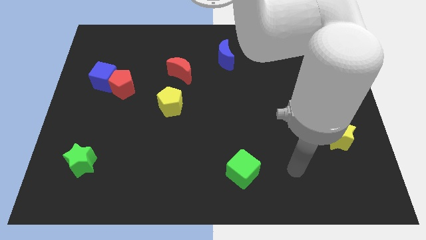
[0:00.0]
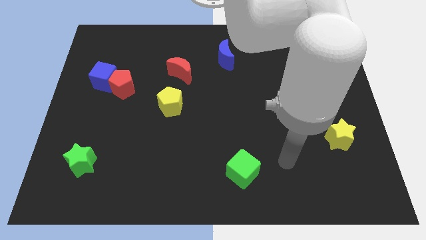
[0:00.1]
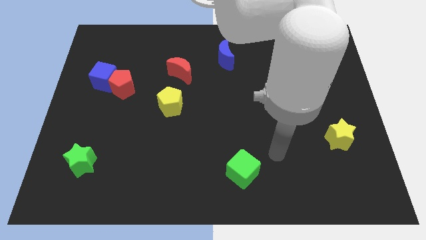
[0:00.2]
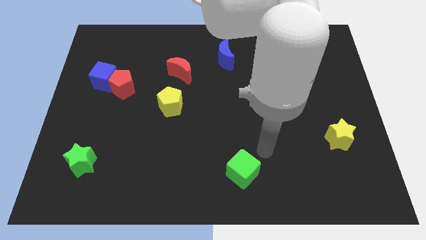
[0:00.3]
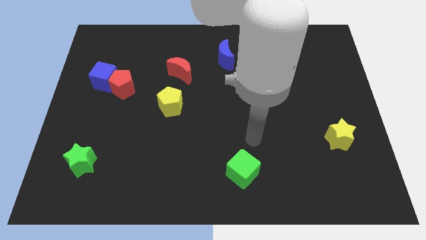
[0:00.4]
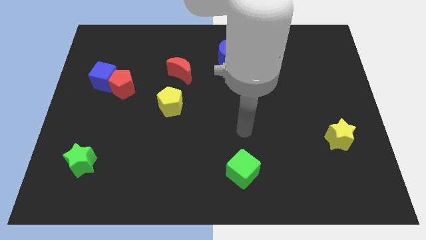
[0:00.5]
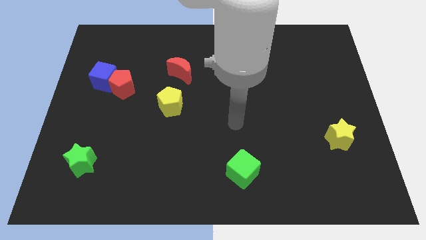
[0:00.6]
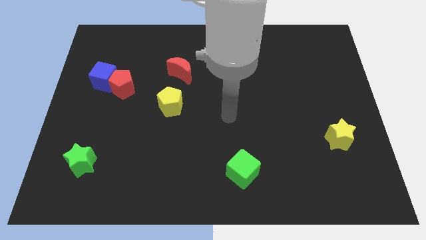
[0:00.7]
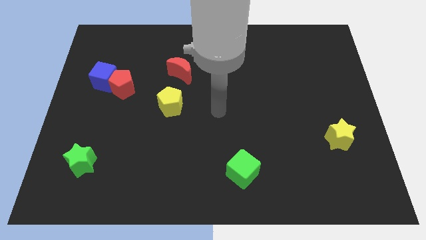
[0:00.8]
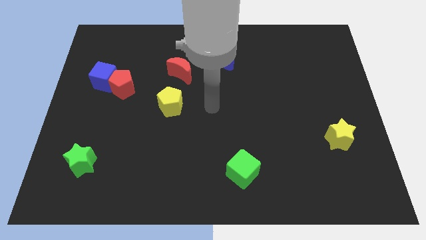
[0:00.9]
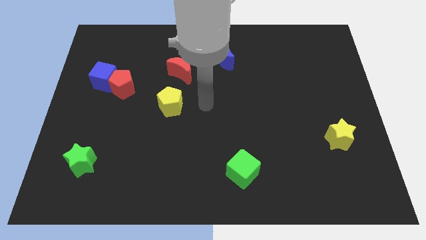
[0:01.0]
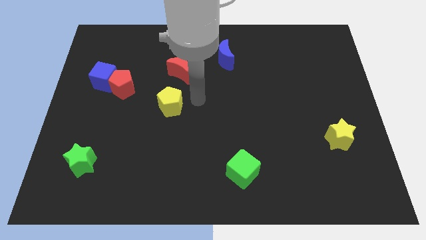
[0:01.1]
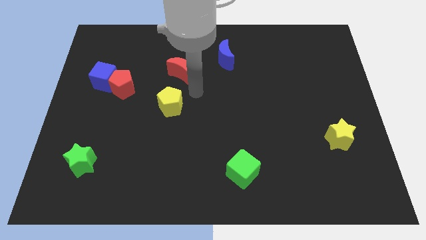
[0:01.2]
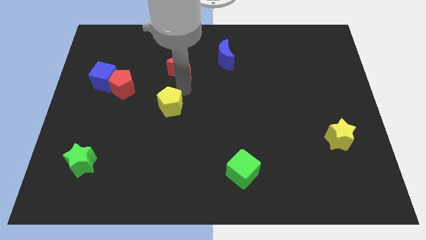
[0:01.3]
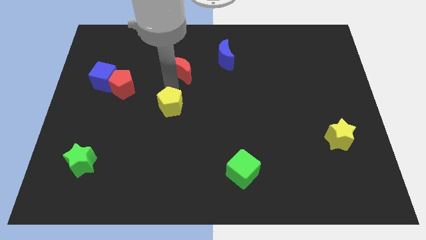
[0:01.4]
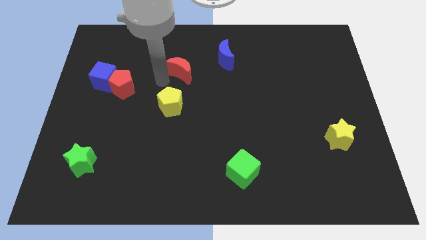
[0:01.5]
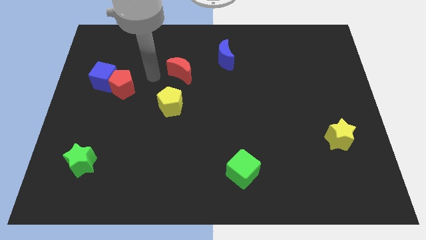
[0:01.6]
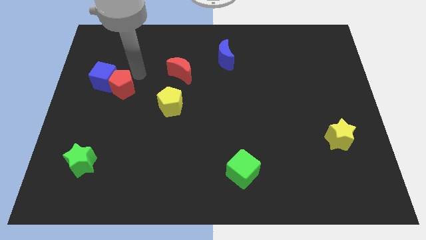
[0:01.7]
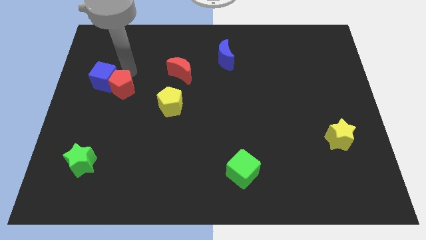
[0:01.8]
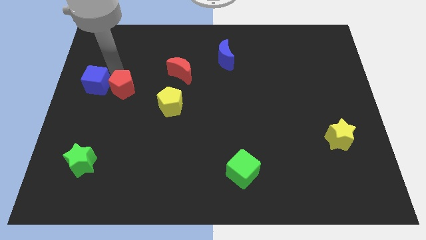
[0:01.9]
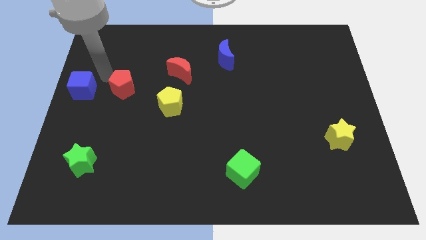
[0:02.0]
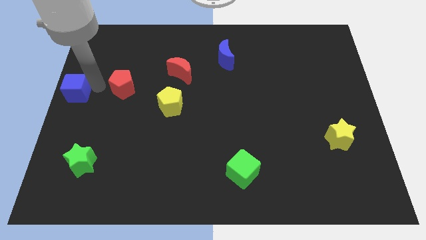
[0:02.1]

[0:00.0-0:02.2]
pull the red pentagon apart from the blue cube

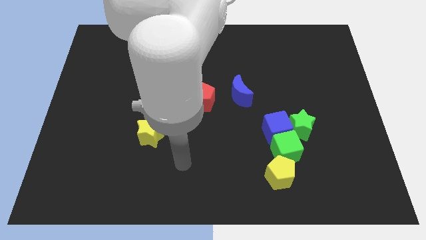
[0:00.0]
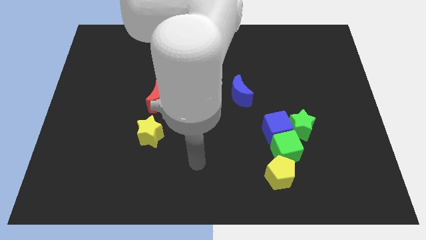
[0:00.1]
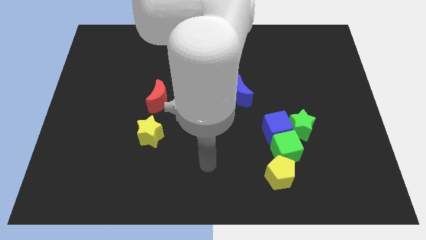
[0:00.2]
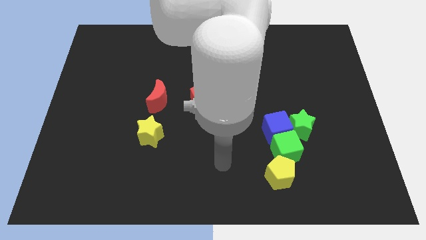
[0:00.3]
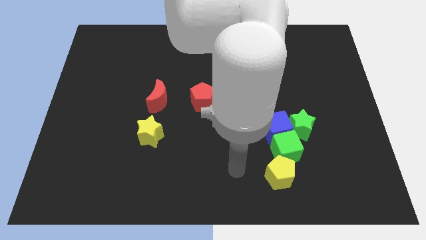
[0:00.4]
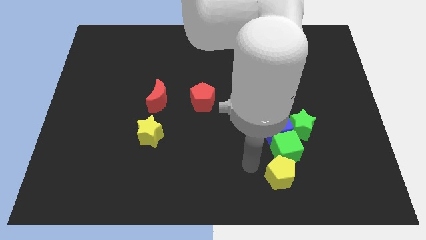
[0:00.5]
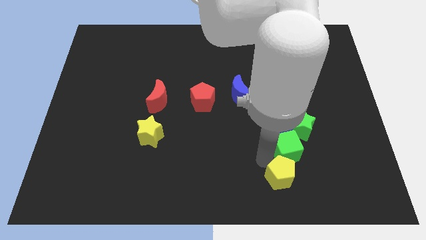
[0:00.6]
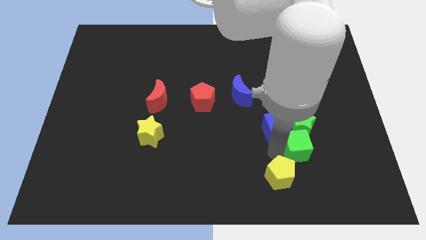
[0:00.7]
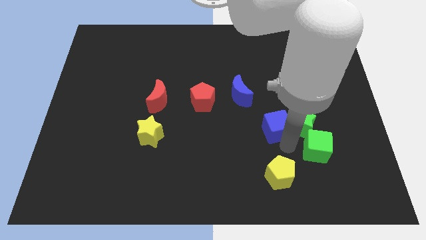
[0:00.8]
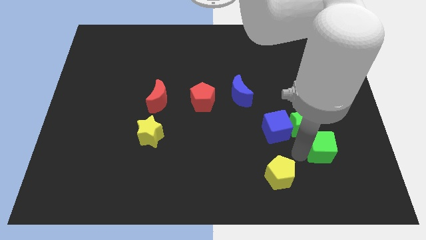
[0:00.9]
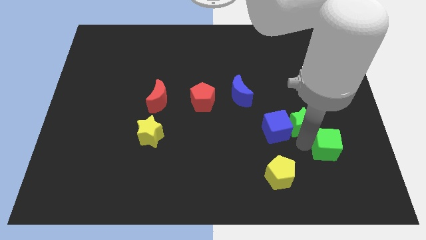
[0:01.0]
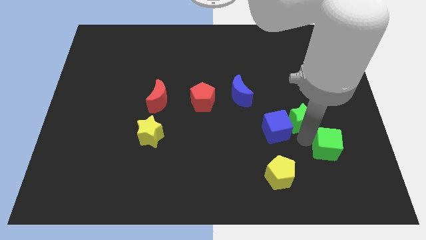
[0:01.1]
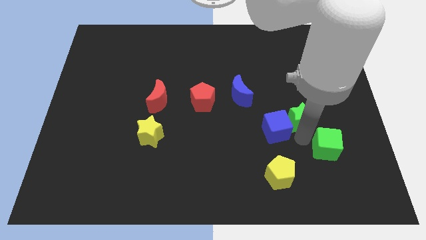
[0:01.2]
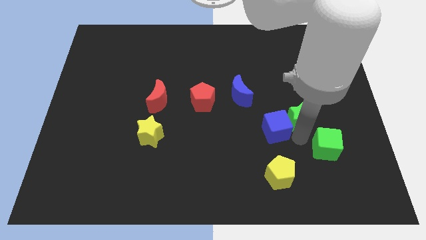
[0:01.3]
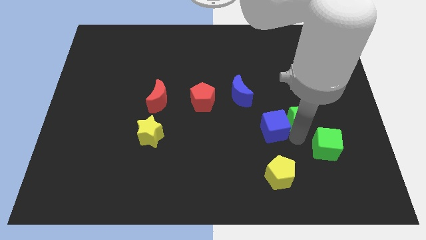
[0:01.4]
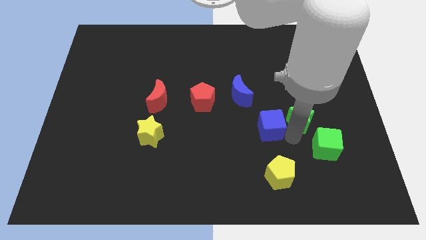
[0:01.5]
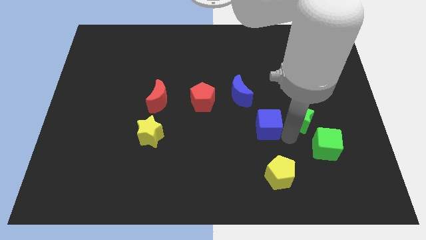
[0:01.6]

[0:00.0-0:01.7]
separate the blue cube from the green cube and green star

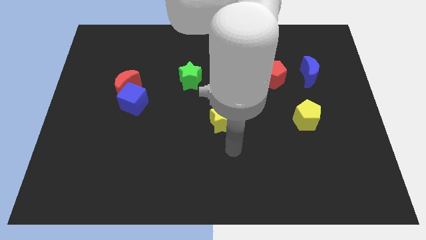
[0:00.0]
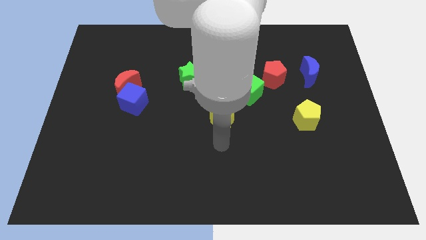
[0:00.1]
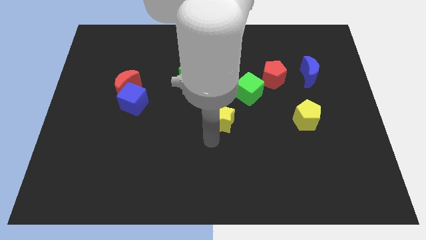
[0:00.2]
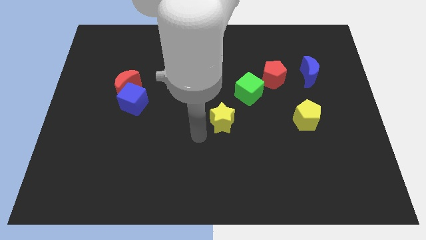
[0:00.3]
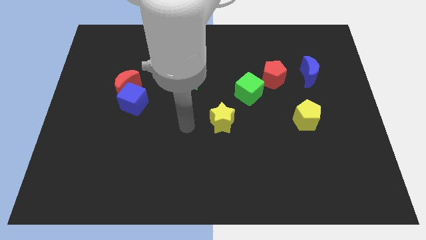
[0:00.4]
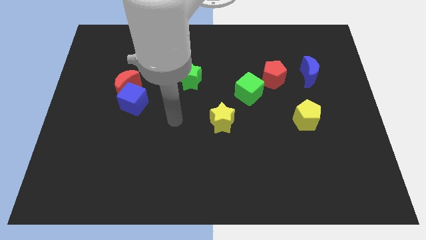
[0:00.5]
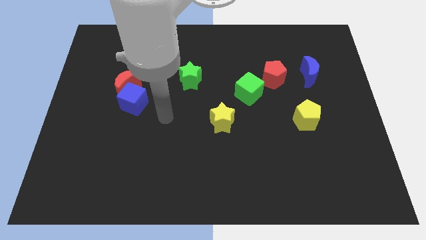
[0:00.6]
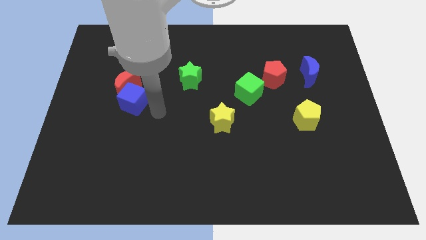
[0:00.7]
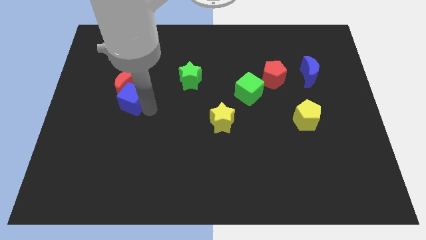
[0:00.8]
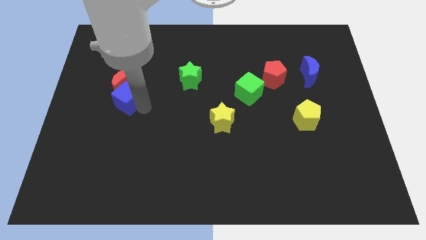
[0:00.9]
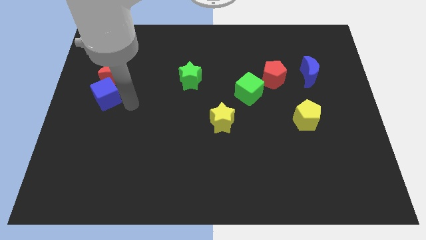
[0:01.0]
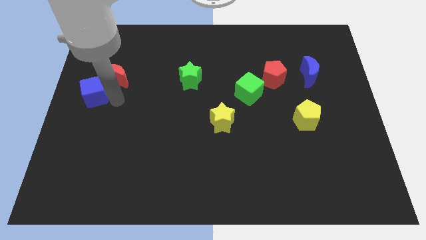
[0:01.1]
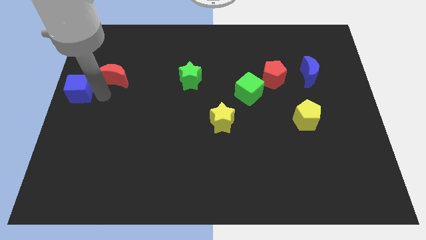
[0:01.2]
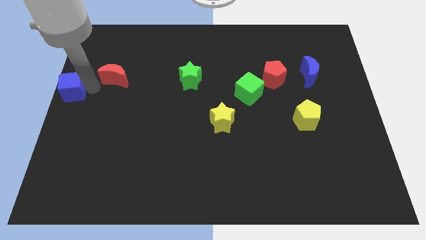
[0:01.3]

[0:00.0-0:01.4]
pull the red moon apart from the blue cube

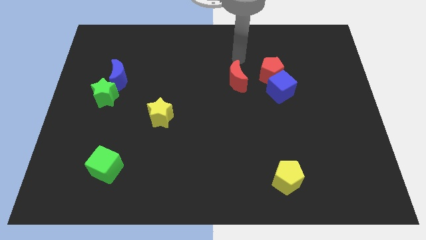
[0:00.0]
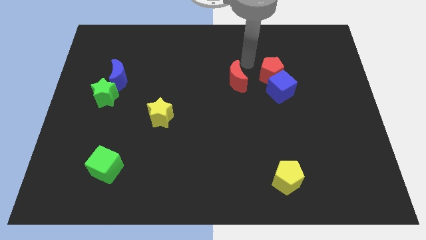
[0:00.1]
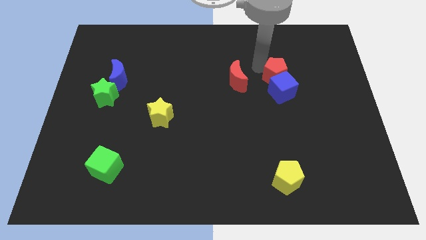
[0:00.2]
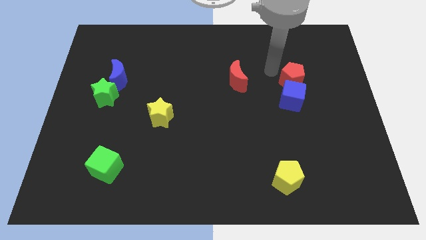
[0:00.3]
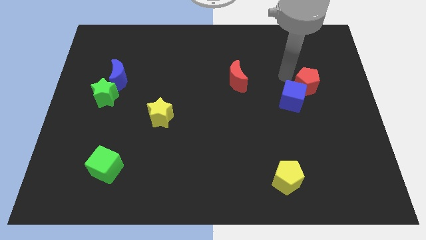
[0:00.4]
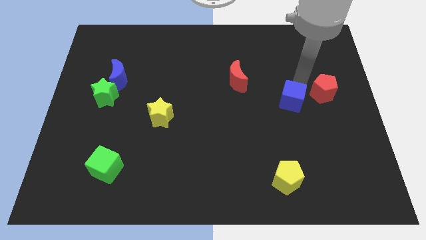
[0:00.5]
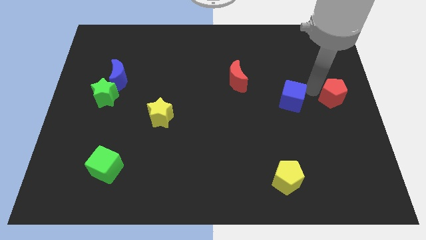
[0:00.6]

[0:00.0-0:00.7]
separate the blue cube from the red pentagon

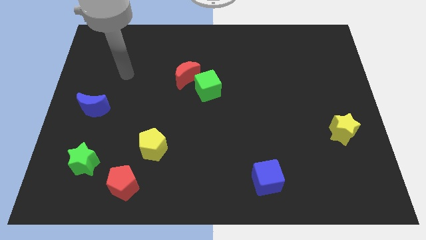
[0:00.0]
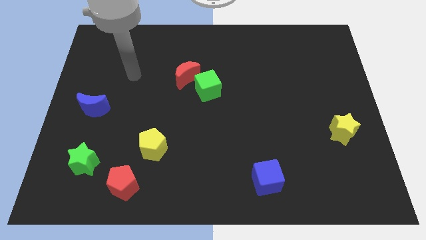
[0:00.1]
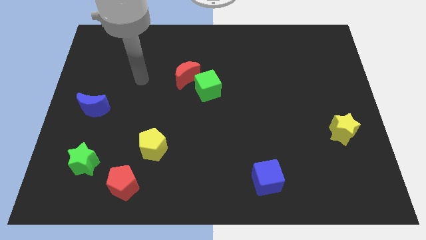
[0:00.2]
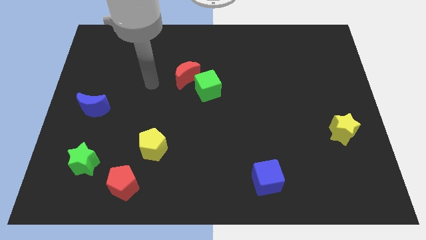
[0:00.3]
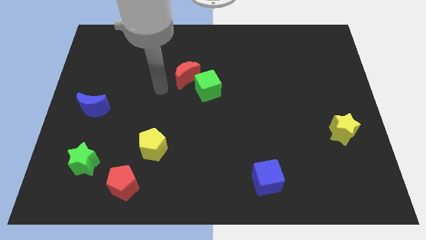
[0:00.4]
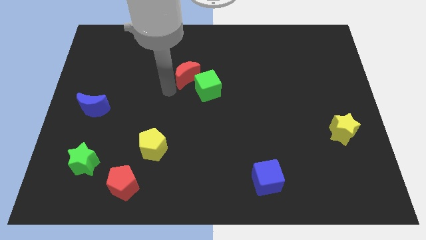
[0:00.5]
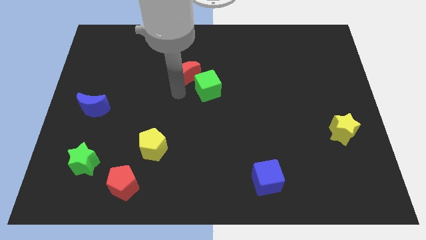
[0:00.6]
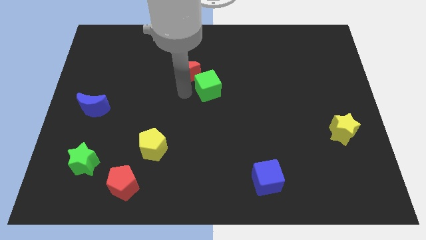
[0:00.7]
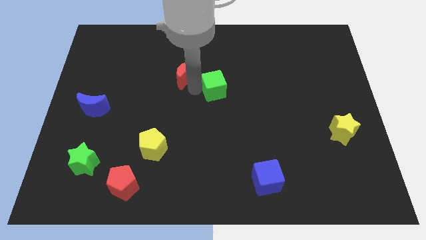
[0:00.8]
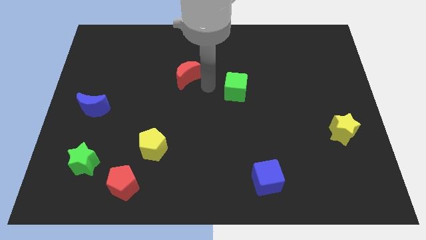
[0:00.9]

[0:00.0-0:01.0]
pull the red moon apart from the green cube

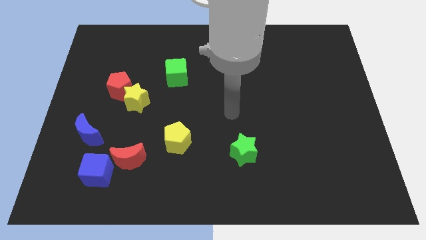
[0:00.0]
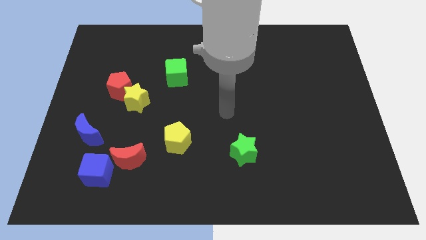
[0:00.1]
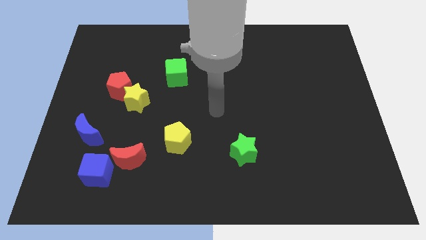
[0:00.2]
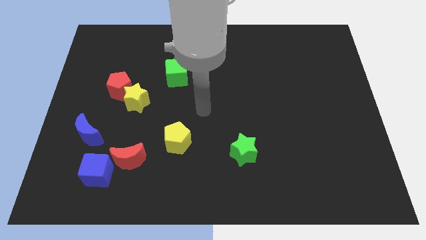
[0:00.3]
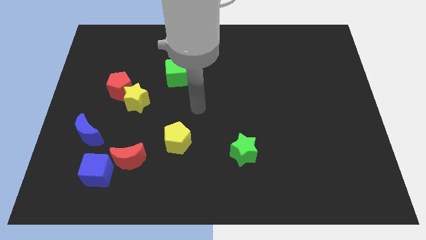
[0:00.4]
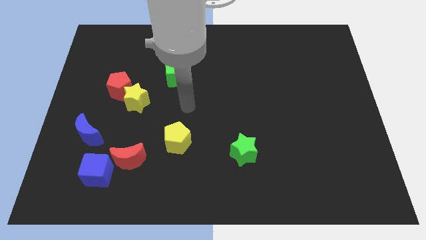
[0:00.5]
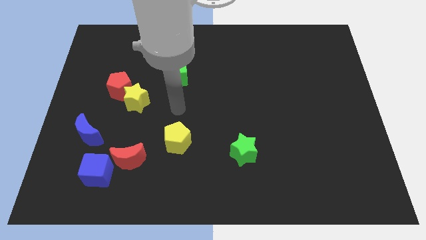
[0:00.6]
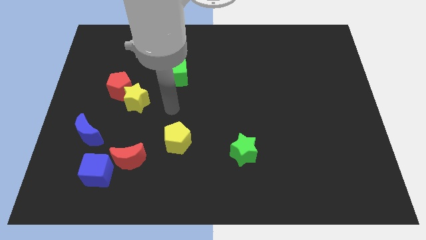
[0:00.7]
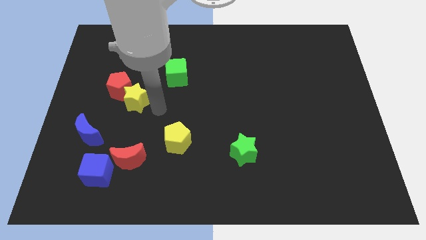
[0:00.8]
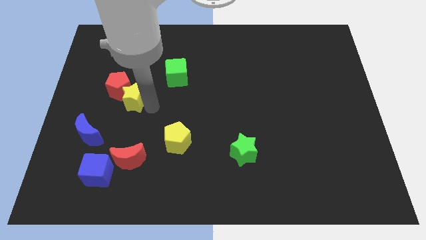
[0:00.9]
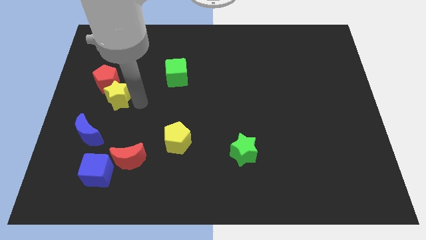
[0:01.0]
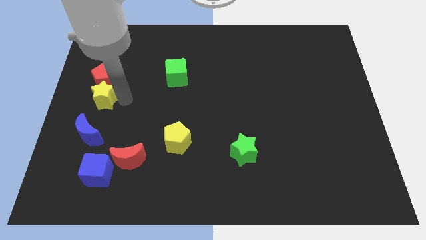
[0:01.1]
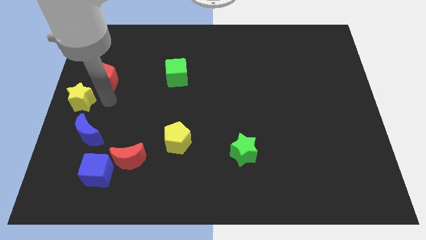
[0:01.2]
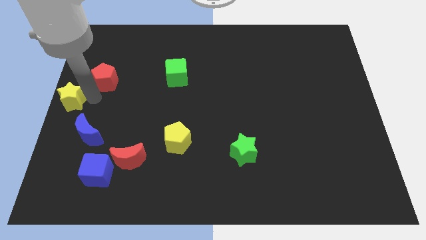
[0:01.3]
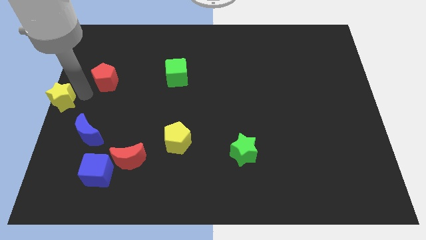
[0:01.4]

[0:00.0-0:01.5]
separate the red pentagon from the yellow star

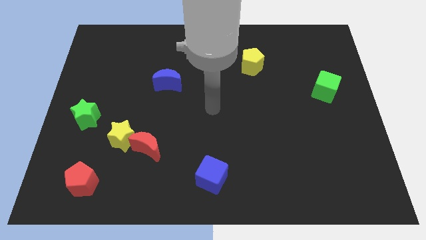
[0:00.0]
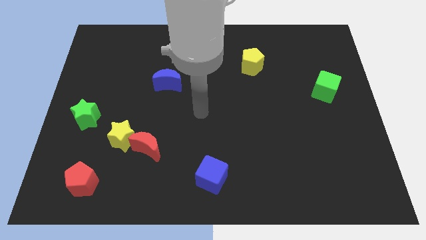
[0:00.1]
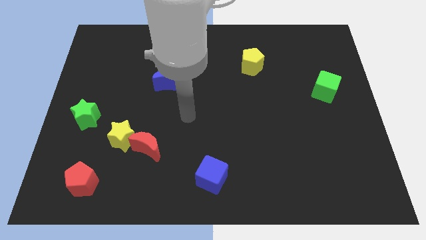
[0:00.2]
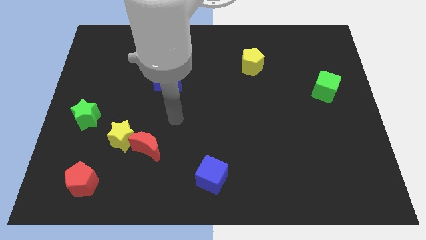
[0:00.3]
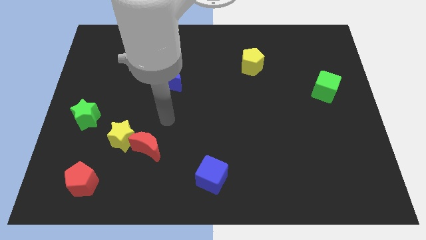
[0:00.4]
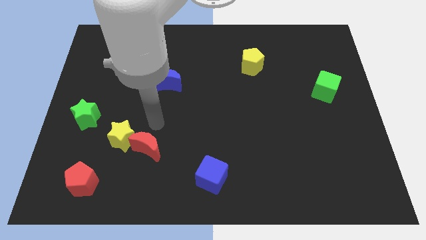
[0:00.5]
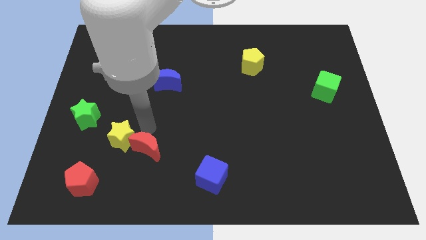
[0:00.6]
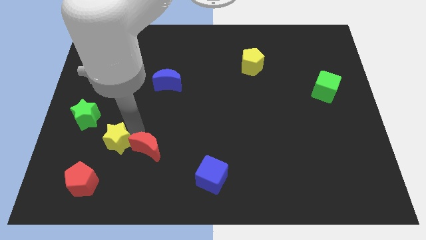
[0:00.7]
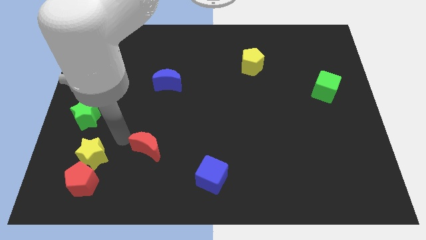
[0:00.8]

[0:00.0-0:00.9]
separate the red moon from the yellow star
